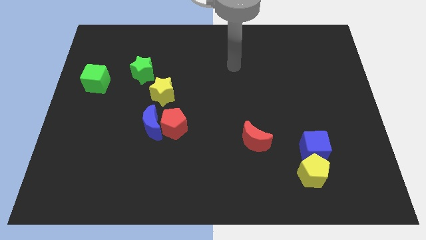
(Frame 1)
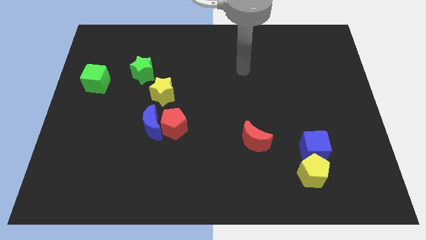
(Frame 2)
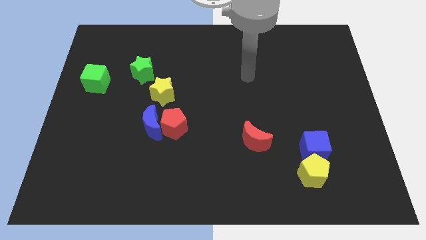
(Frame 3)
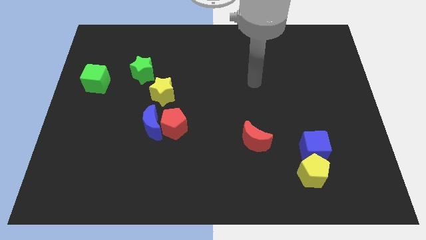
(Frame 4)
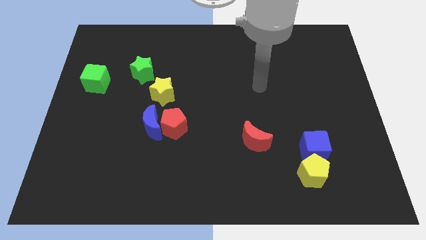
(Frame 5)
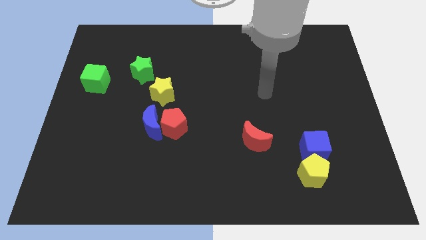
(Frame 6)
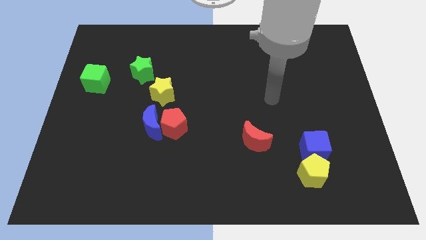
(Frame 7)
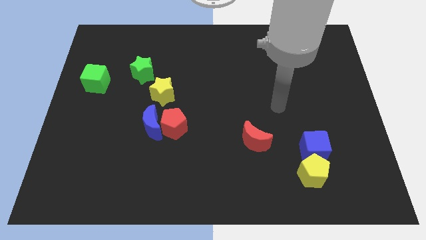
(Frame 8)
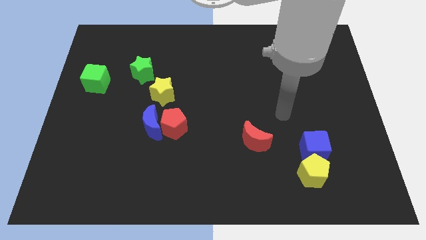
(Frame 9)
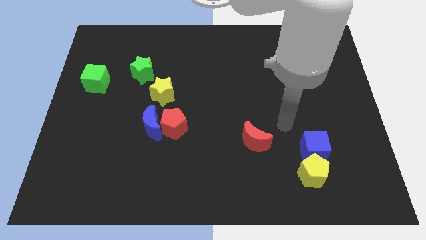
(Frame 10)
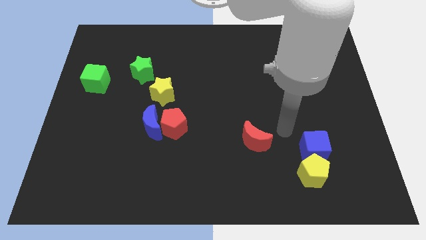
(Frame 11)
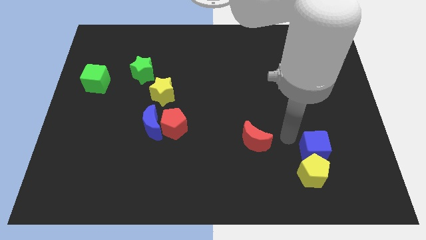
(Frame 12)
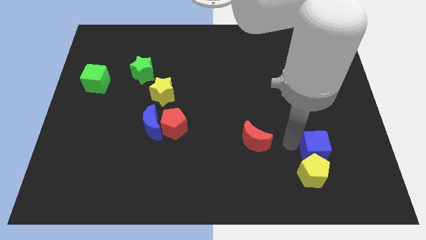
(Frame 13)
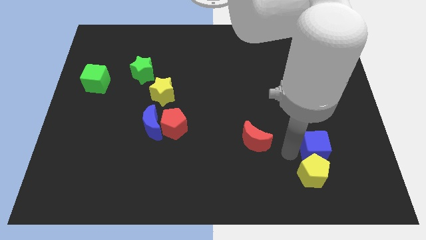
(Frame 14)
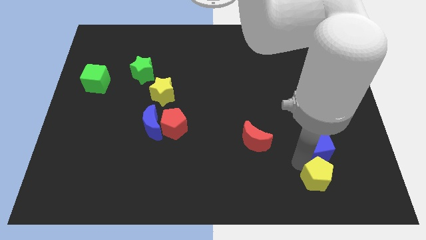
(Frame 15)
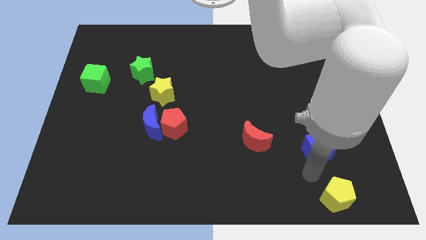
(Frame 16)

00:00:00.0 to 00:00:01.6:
pull the blue cube apart from the yellow pentagon

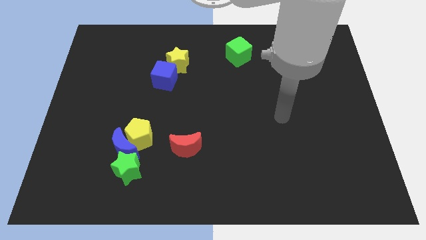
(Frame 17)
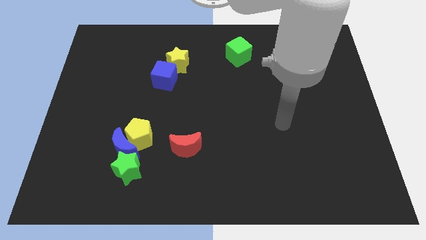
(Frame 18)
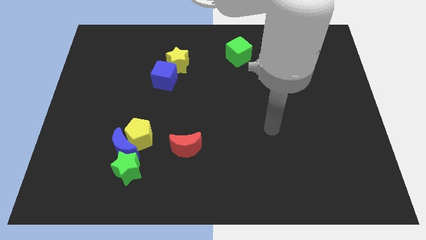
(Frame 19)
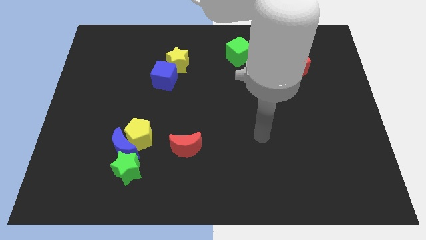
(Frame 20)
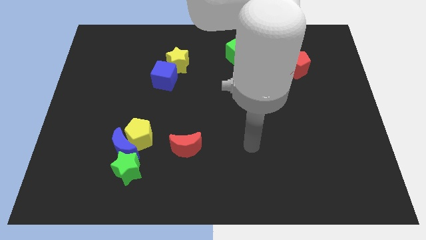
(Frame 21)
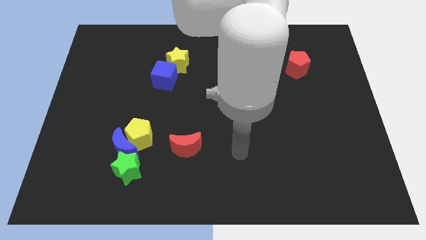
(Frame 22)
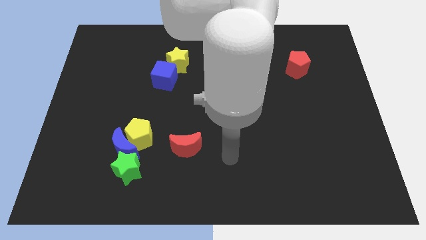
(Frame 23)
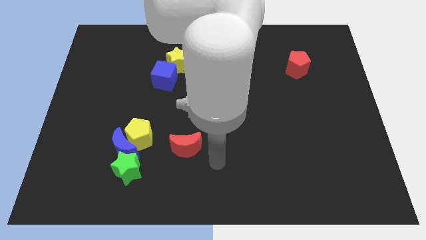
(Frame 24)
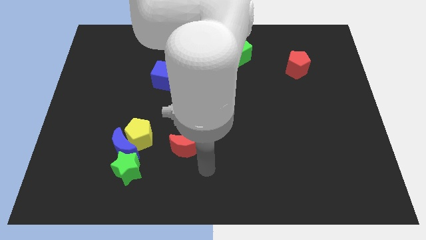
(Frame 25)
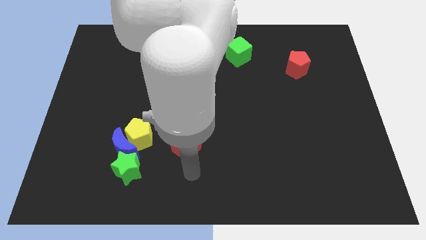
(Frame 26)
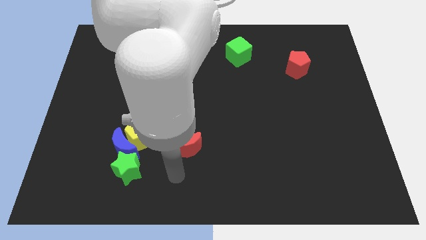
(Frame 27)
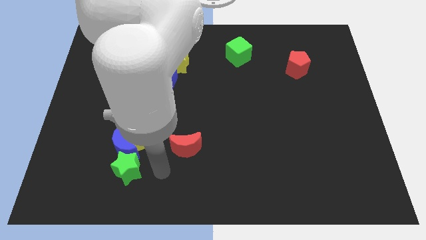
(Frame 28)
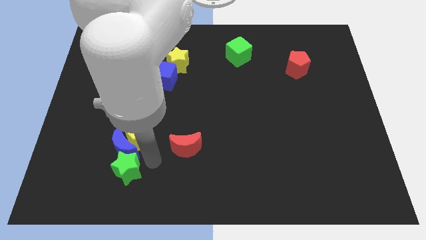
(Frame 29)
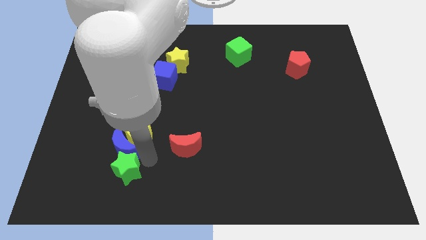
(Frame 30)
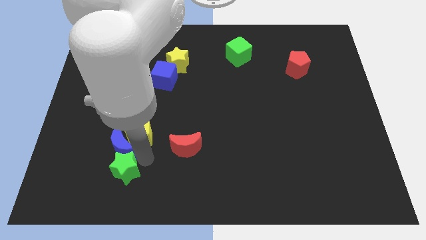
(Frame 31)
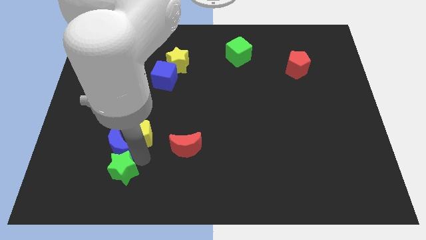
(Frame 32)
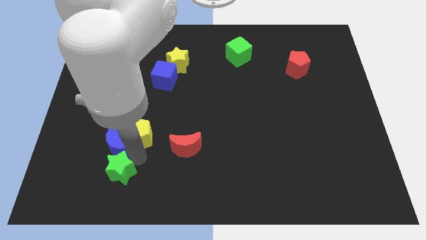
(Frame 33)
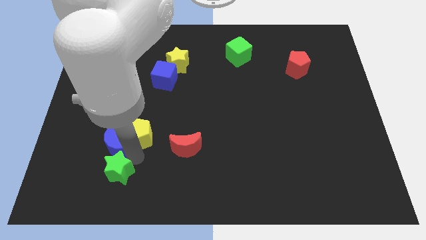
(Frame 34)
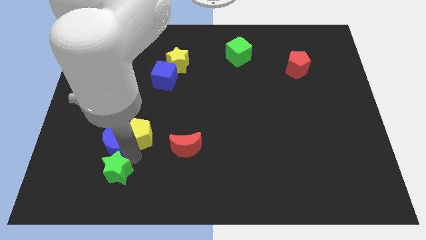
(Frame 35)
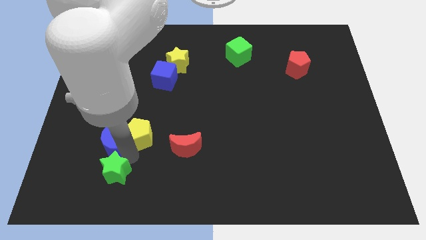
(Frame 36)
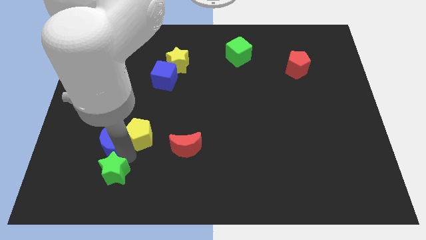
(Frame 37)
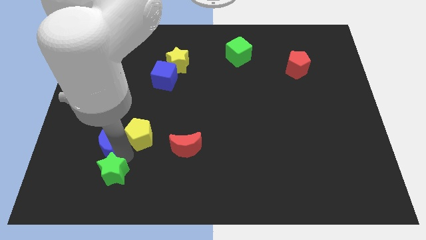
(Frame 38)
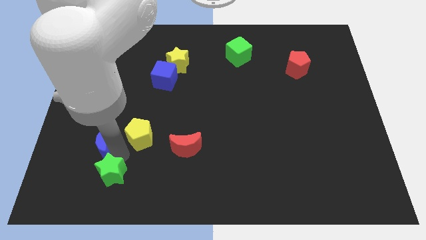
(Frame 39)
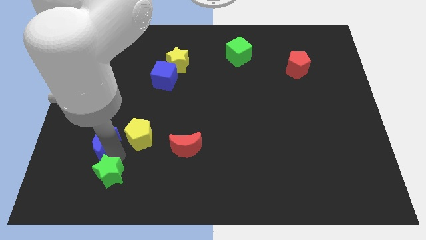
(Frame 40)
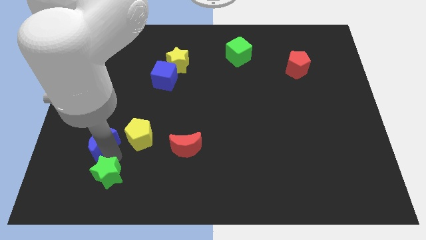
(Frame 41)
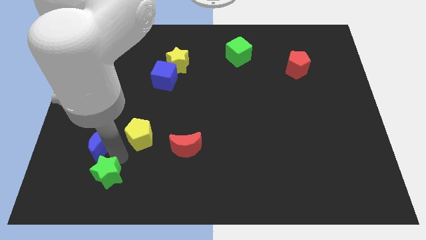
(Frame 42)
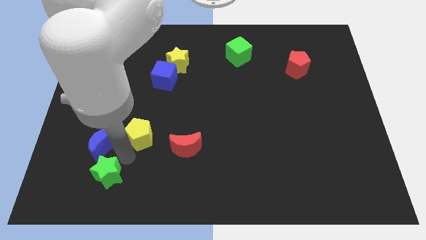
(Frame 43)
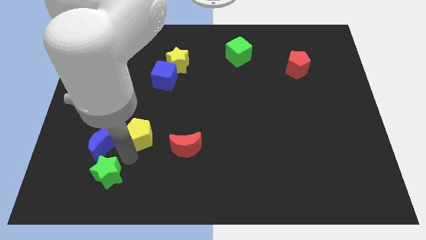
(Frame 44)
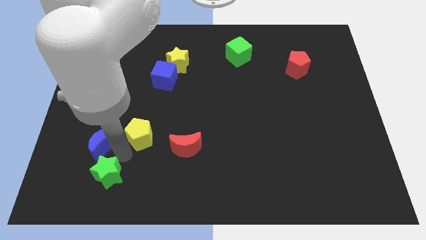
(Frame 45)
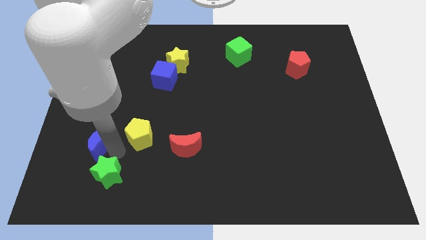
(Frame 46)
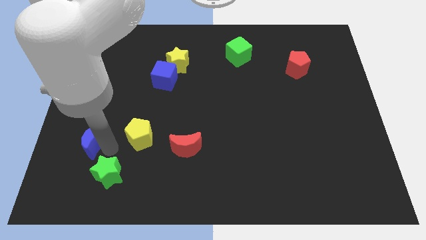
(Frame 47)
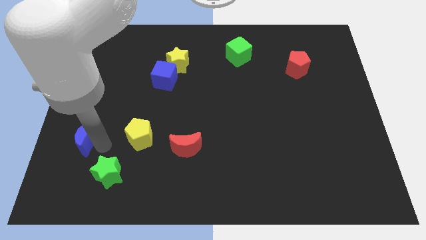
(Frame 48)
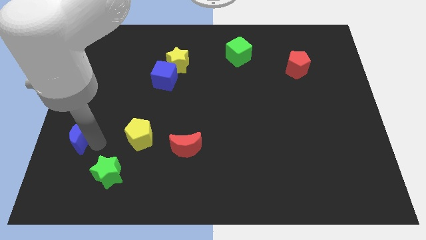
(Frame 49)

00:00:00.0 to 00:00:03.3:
pull the blue moon apart from the yellow pentagon and green star

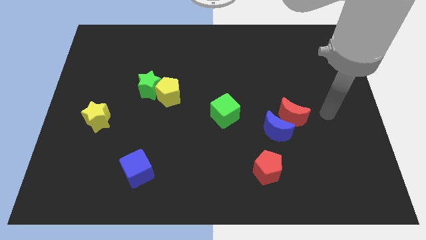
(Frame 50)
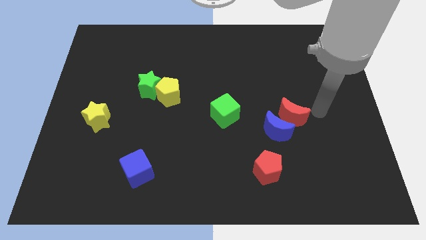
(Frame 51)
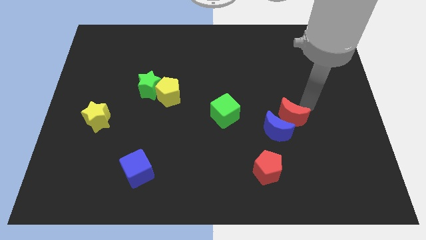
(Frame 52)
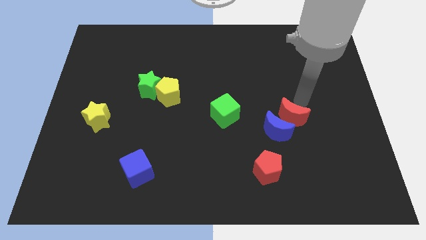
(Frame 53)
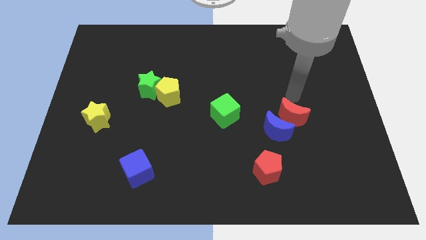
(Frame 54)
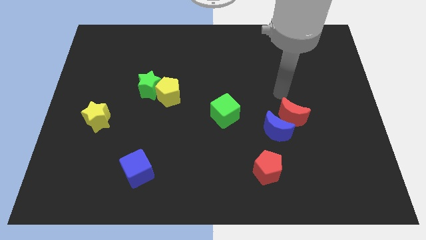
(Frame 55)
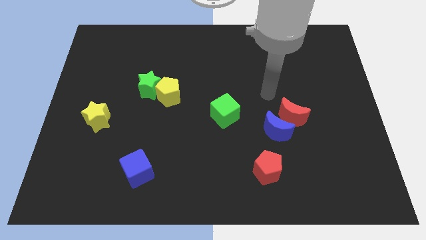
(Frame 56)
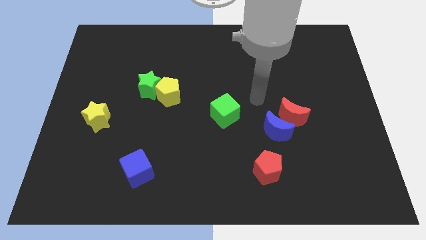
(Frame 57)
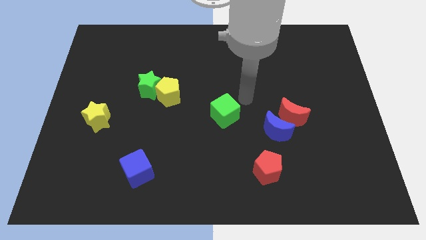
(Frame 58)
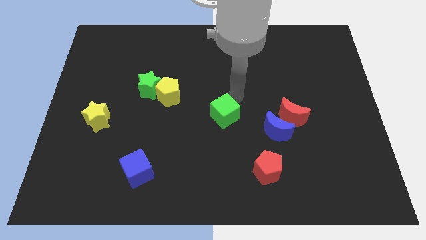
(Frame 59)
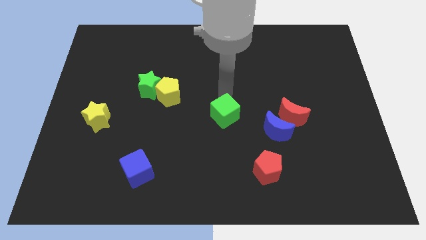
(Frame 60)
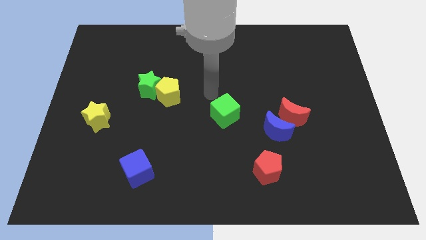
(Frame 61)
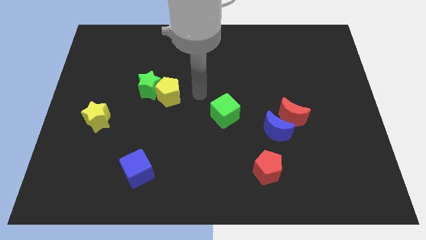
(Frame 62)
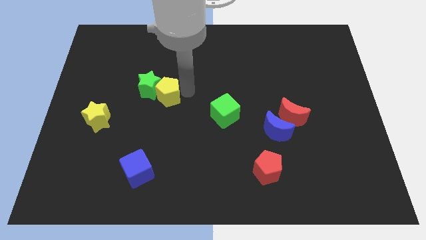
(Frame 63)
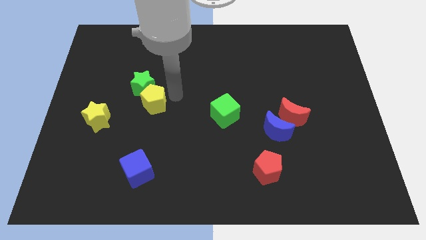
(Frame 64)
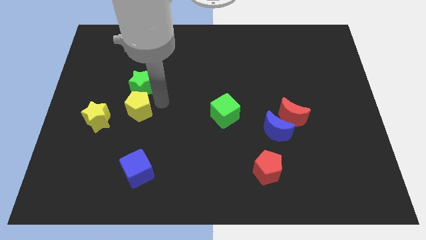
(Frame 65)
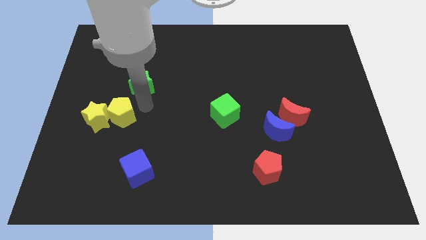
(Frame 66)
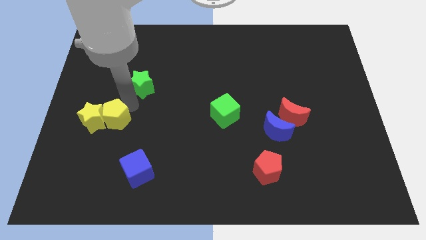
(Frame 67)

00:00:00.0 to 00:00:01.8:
move the green star away from the yellow pentagon

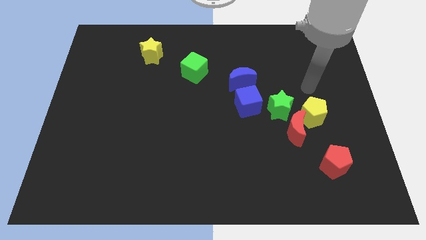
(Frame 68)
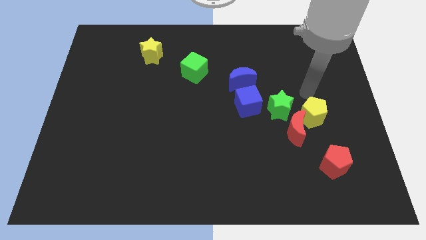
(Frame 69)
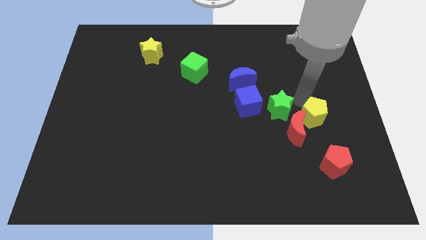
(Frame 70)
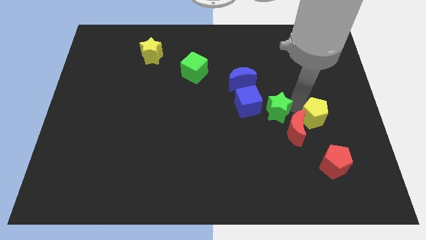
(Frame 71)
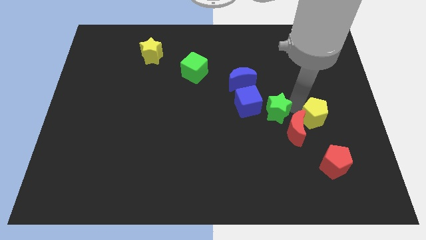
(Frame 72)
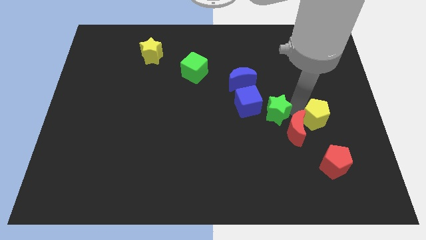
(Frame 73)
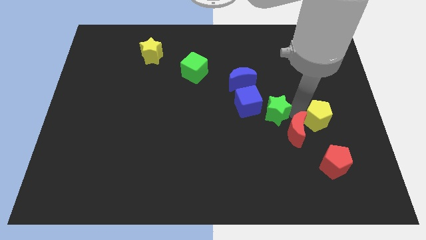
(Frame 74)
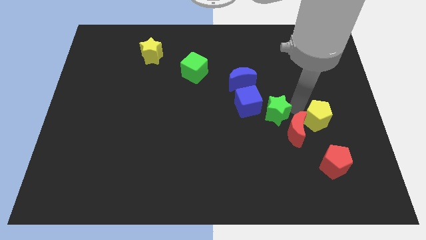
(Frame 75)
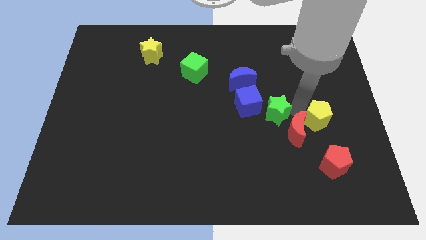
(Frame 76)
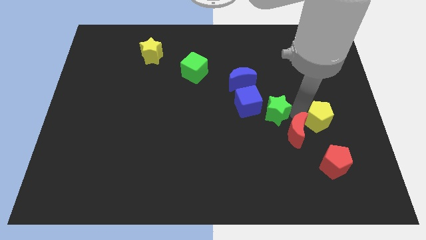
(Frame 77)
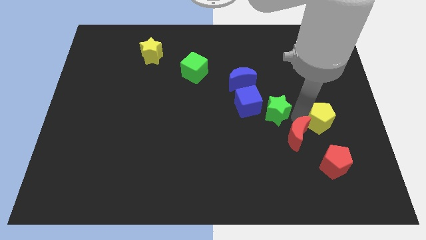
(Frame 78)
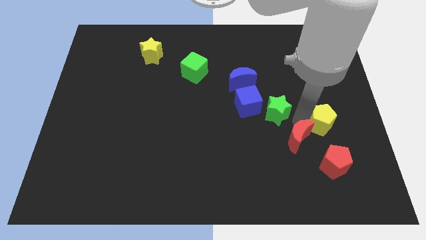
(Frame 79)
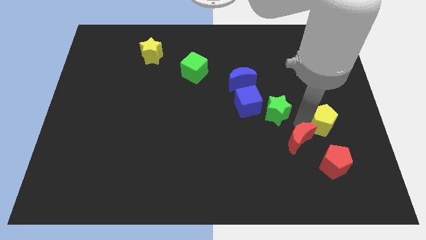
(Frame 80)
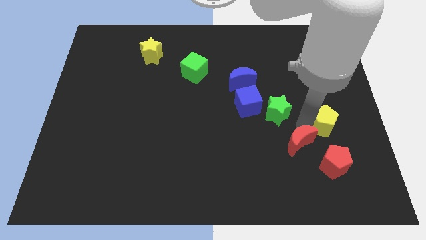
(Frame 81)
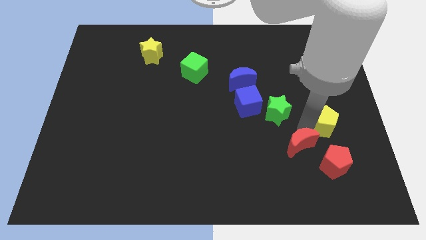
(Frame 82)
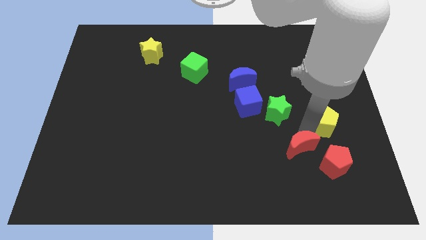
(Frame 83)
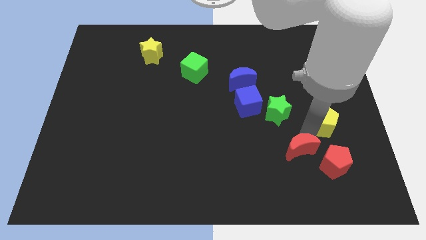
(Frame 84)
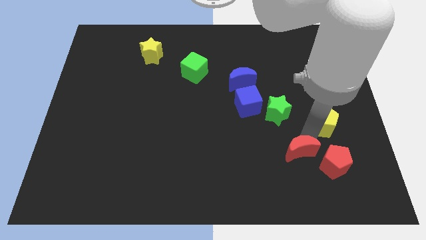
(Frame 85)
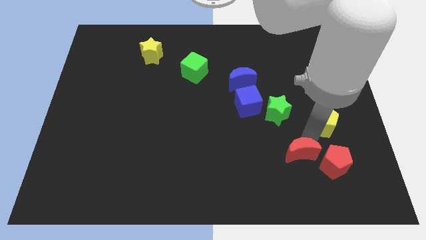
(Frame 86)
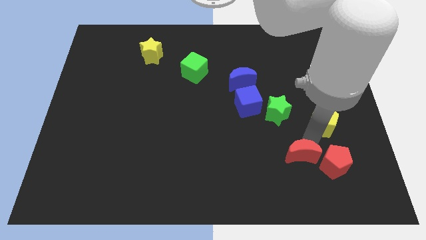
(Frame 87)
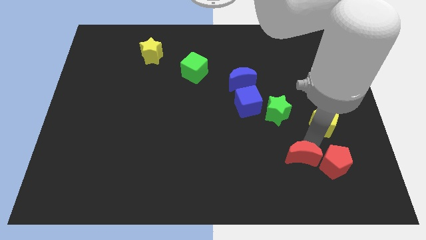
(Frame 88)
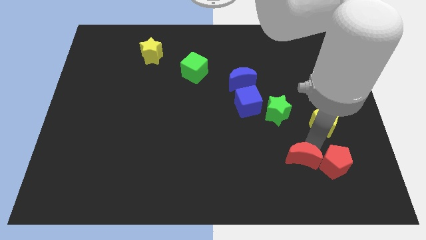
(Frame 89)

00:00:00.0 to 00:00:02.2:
separate the red moon from the yellow pentagon and green star

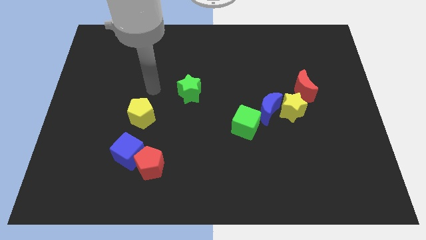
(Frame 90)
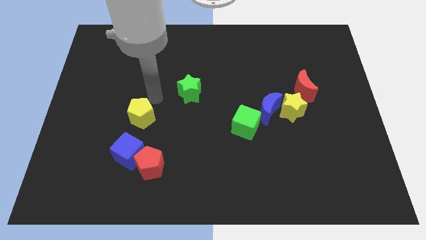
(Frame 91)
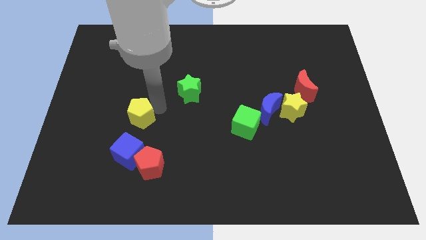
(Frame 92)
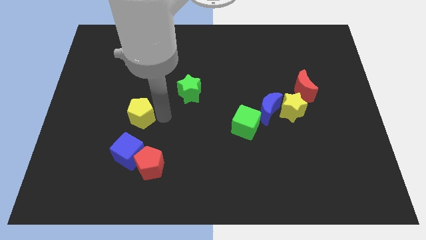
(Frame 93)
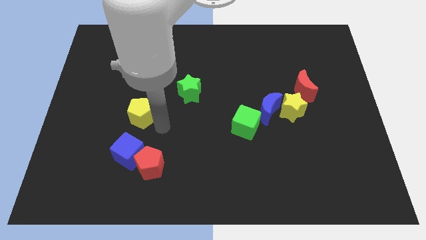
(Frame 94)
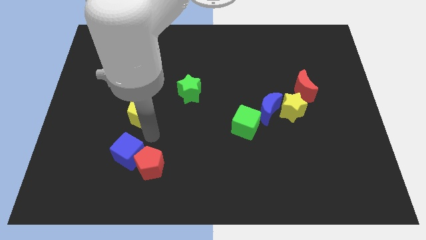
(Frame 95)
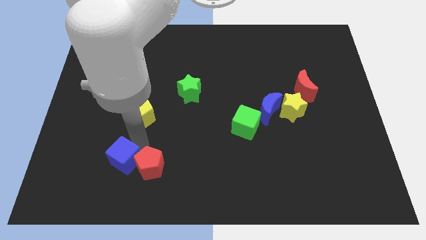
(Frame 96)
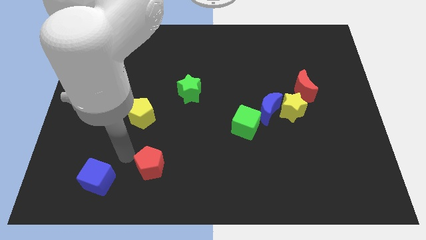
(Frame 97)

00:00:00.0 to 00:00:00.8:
move the red pentagon away from the blue cube
